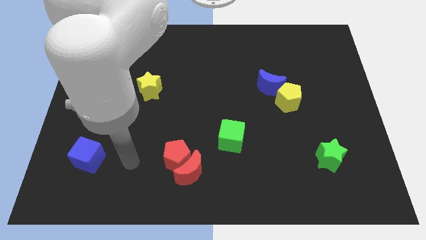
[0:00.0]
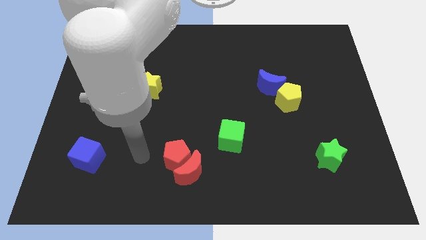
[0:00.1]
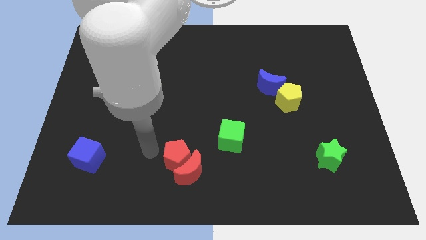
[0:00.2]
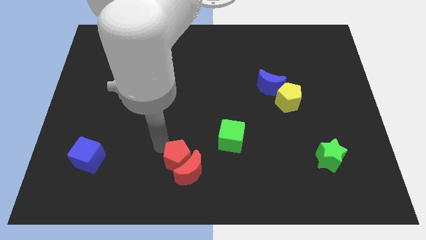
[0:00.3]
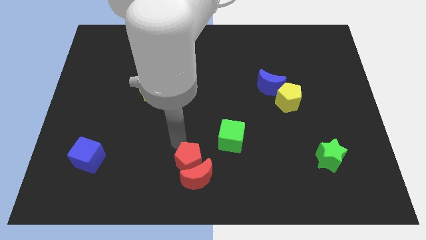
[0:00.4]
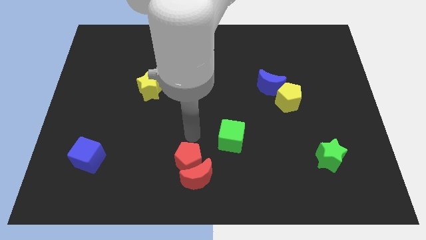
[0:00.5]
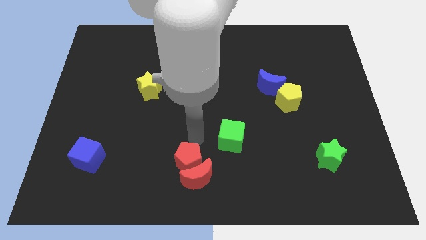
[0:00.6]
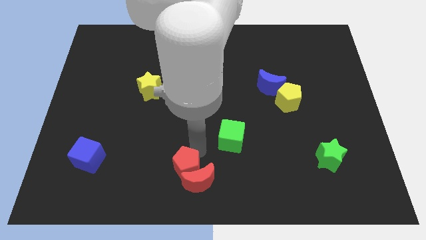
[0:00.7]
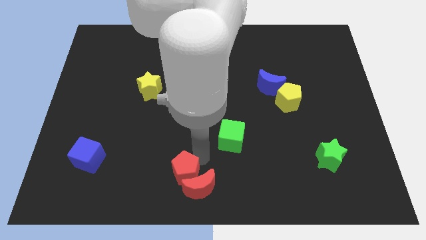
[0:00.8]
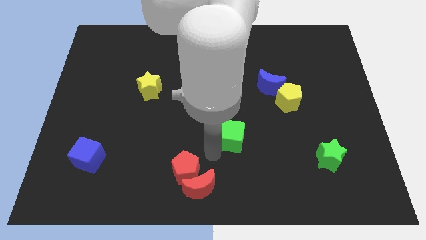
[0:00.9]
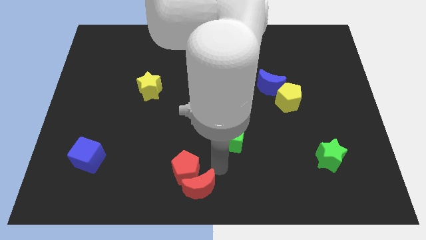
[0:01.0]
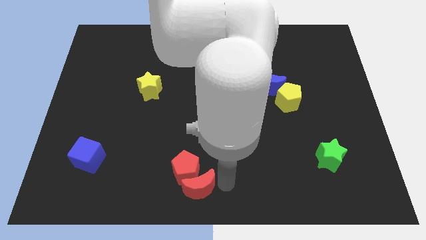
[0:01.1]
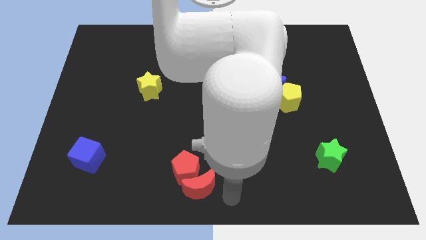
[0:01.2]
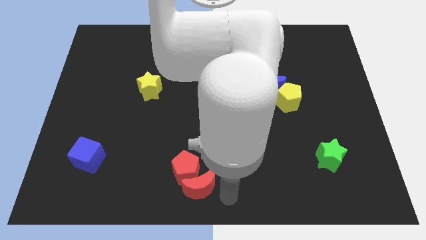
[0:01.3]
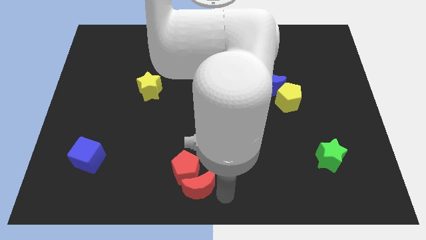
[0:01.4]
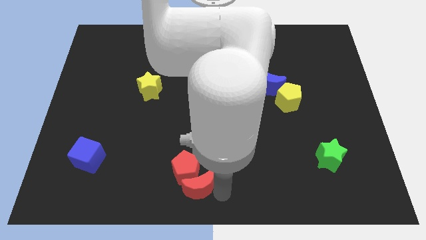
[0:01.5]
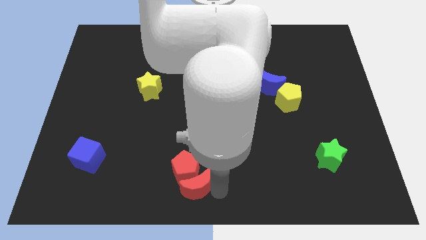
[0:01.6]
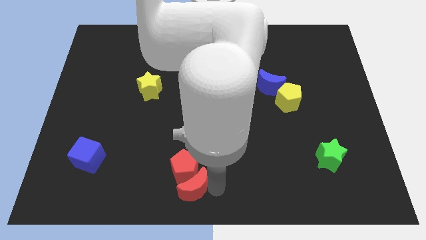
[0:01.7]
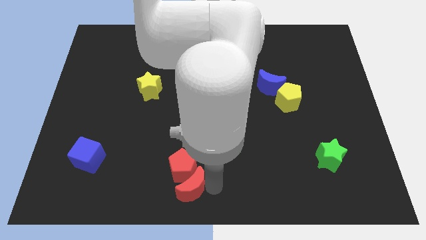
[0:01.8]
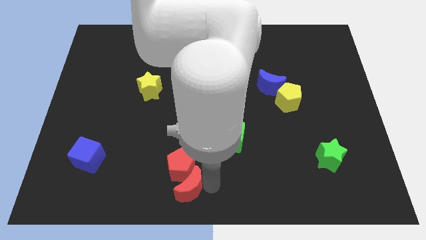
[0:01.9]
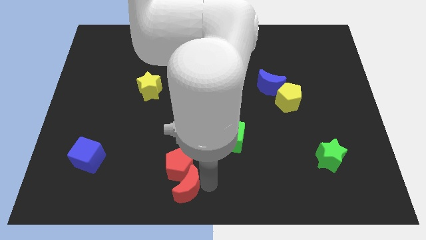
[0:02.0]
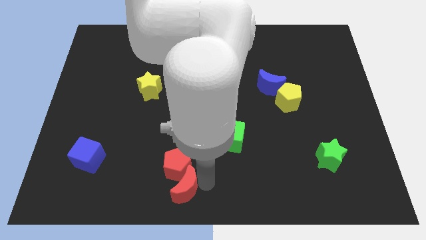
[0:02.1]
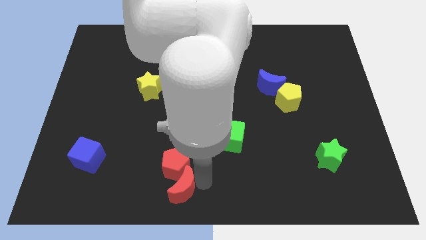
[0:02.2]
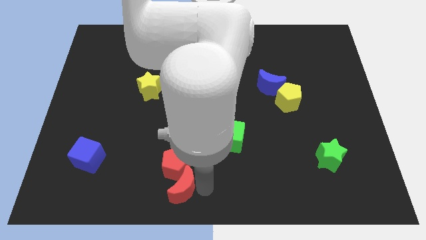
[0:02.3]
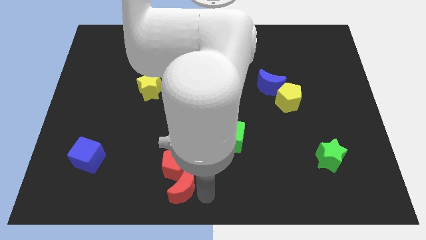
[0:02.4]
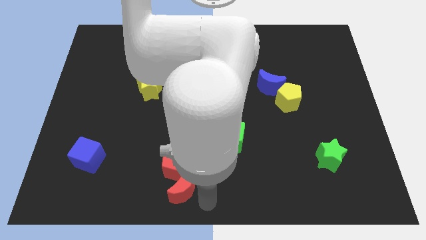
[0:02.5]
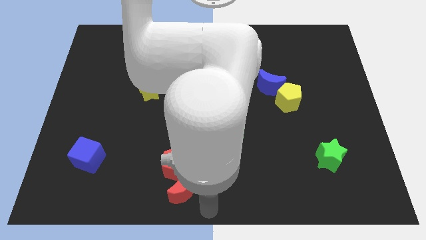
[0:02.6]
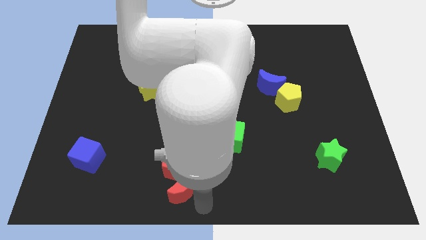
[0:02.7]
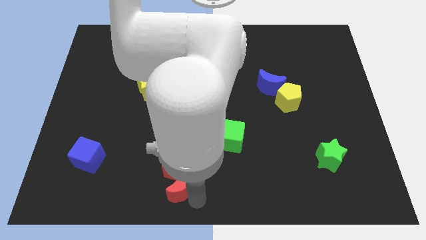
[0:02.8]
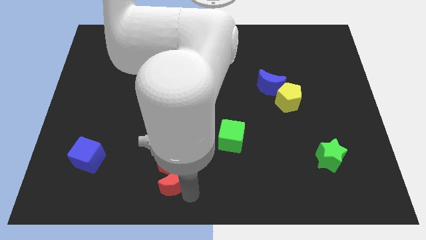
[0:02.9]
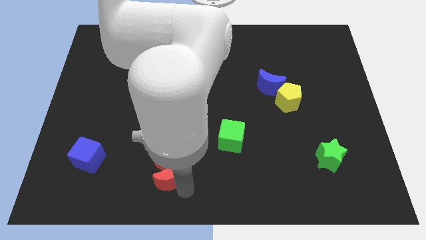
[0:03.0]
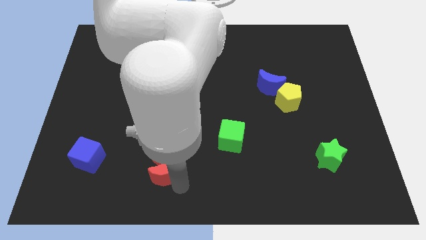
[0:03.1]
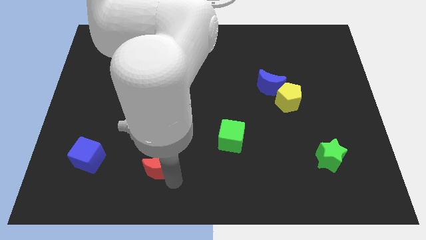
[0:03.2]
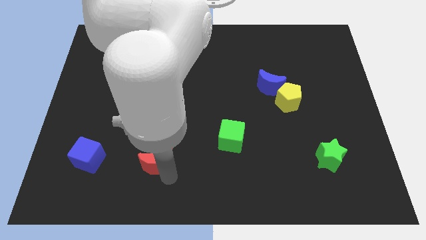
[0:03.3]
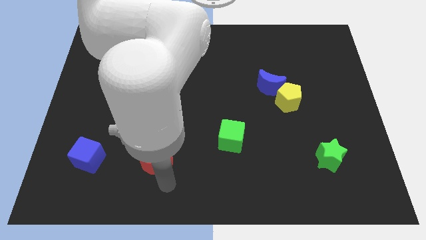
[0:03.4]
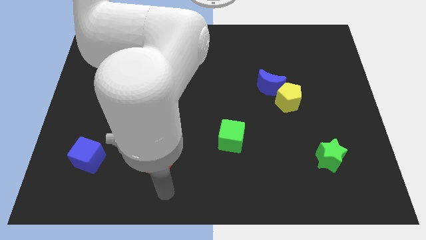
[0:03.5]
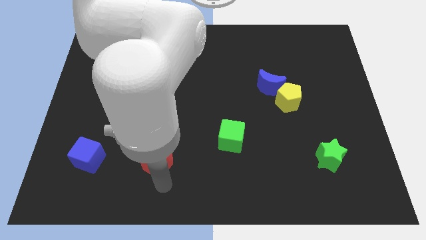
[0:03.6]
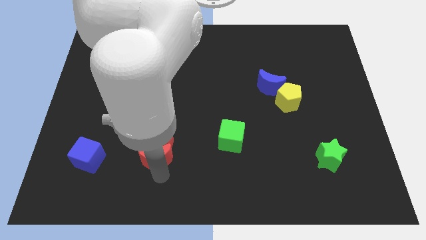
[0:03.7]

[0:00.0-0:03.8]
slide the red moon somewhat diagonally up and left

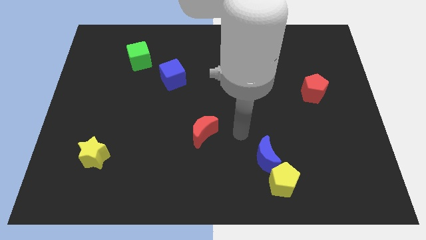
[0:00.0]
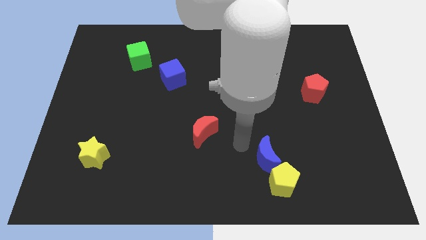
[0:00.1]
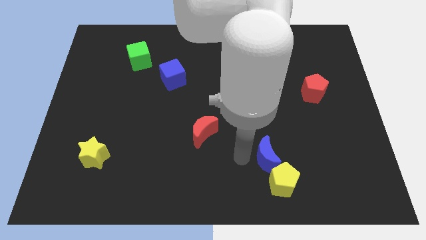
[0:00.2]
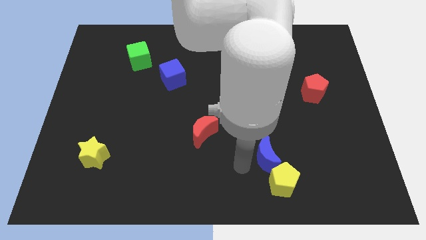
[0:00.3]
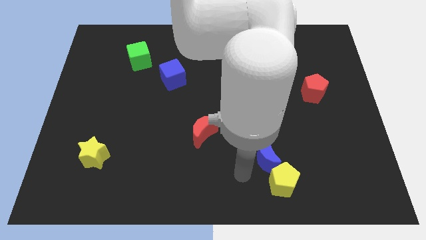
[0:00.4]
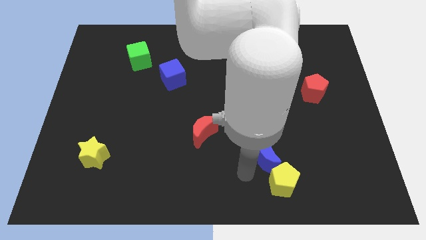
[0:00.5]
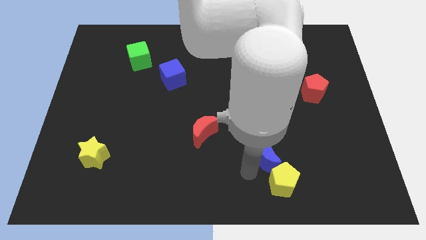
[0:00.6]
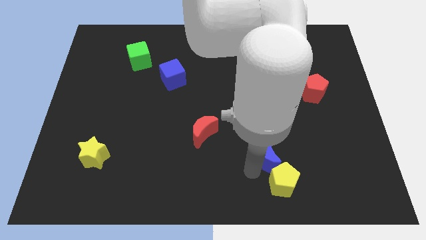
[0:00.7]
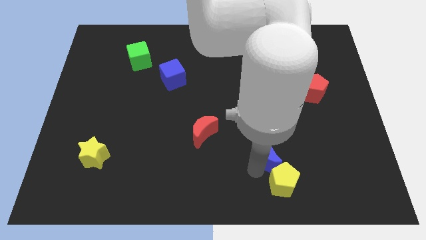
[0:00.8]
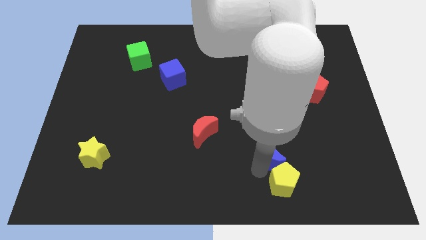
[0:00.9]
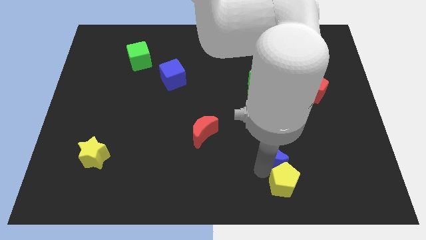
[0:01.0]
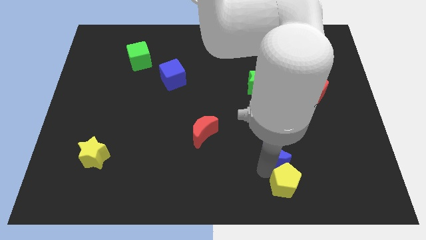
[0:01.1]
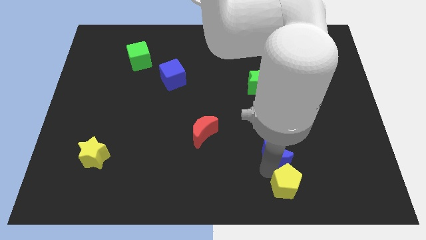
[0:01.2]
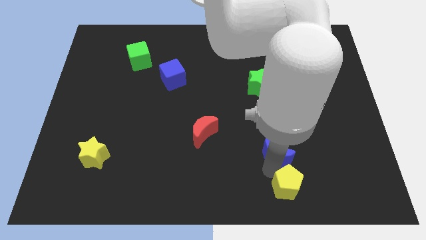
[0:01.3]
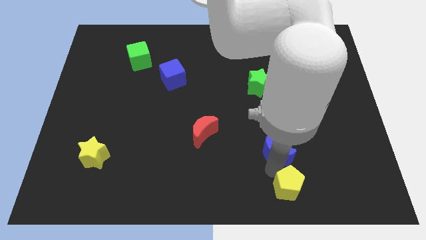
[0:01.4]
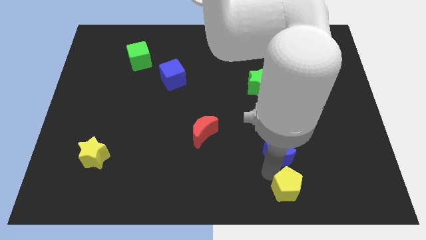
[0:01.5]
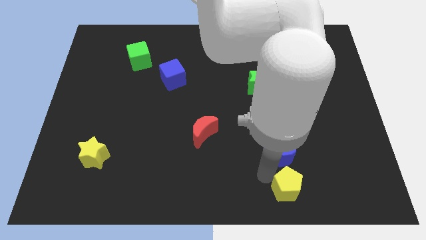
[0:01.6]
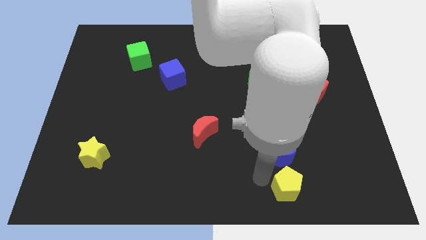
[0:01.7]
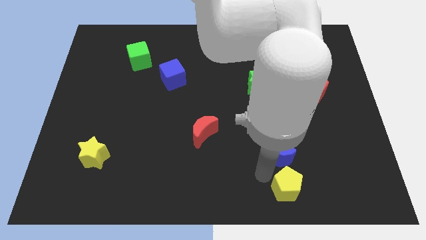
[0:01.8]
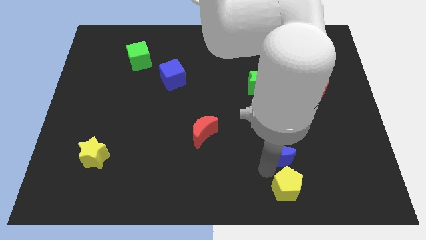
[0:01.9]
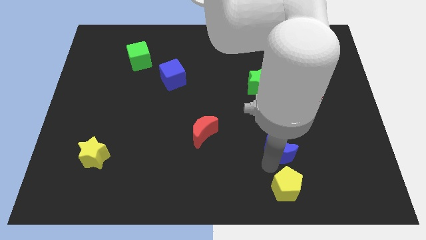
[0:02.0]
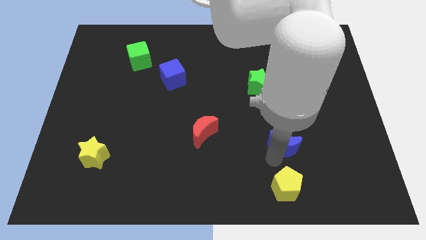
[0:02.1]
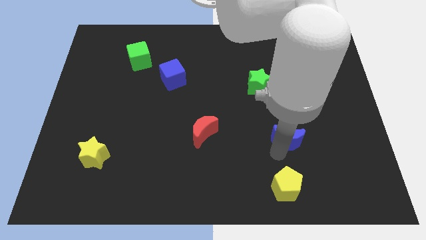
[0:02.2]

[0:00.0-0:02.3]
move the blue moon upwards and to the right diagonally a little bit

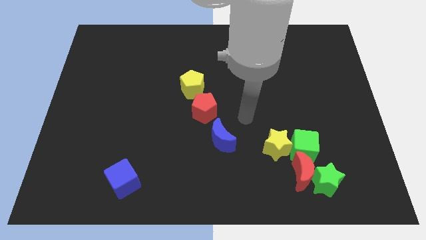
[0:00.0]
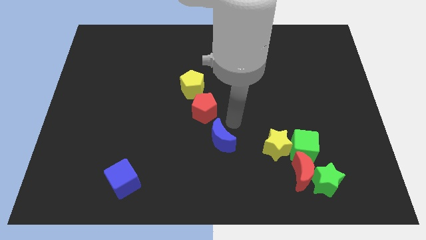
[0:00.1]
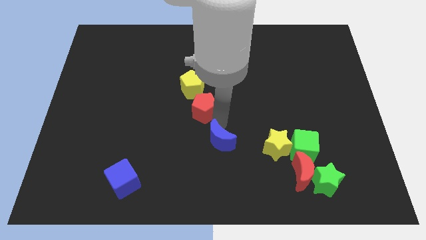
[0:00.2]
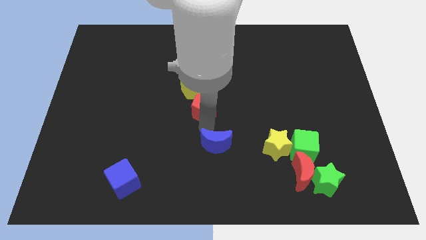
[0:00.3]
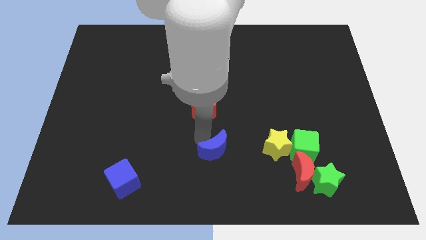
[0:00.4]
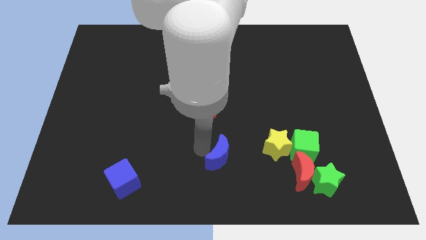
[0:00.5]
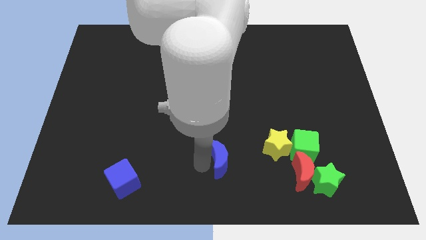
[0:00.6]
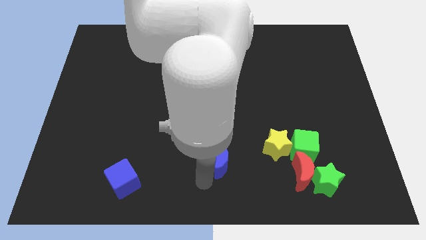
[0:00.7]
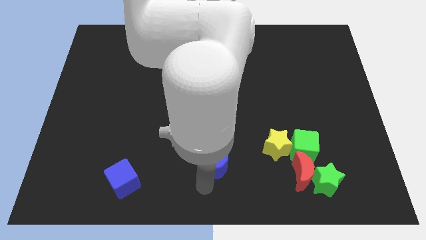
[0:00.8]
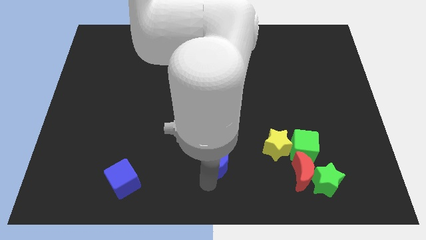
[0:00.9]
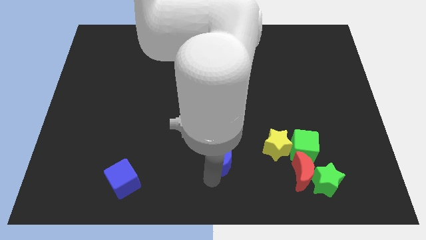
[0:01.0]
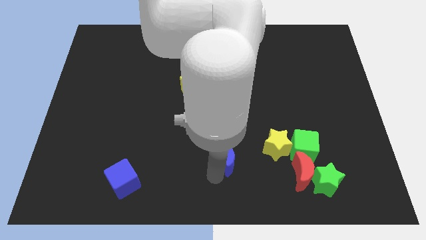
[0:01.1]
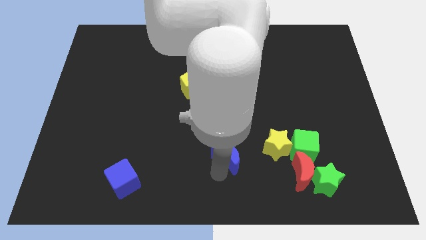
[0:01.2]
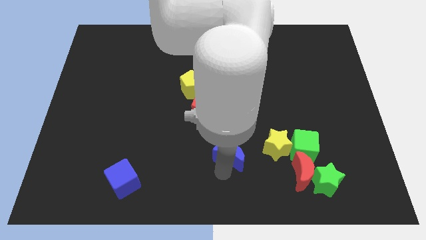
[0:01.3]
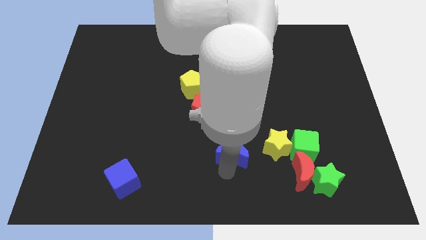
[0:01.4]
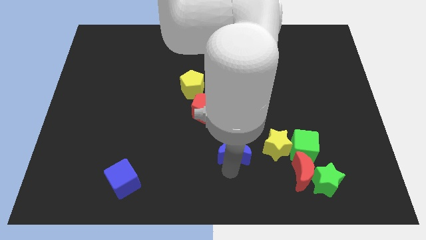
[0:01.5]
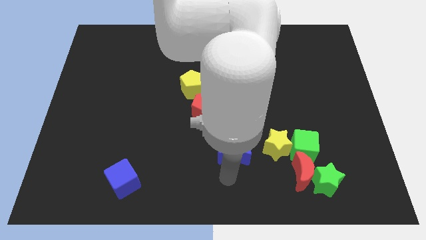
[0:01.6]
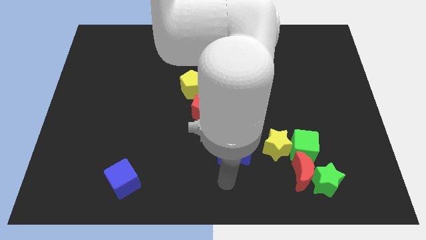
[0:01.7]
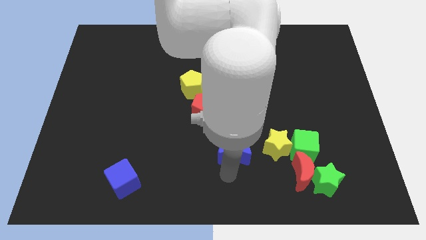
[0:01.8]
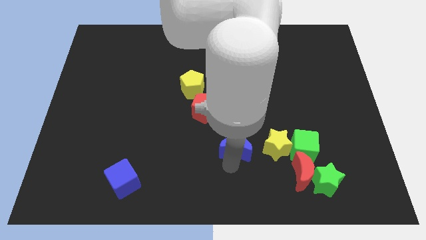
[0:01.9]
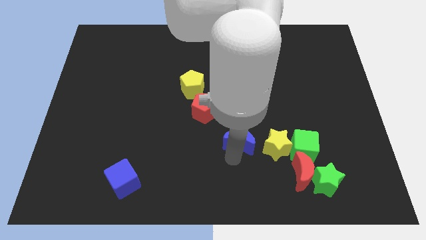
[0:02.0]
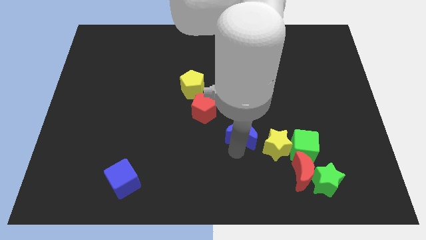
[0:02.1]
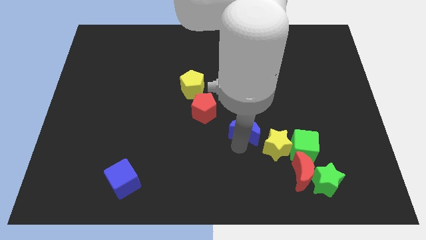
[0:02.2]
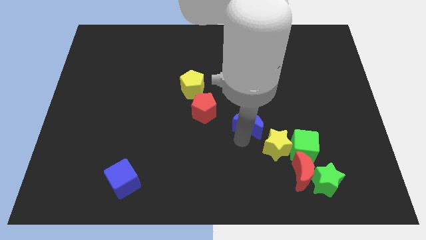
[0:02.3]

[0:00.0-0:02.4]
push the blue moon up and then to the right a little bit
